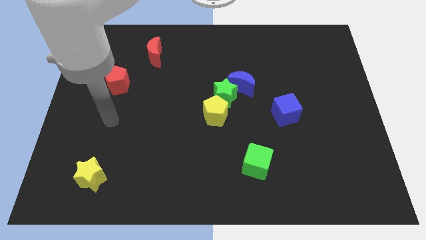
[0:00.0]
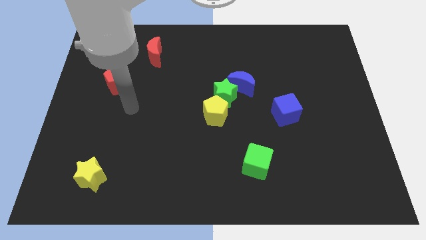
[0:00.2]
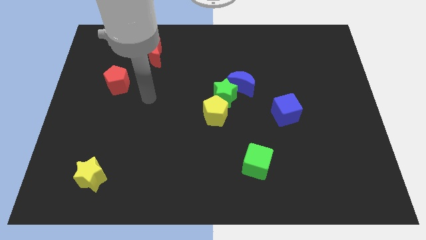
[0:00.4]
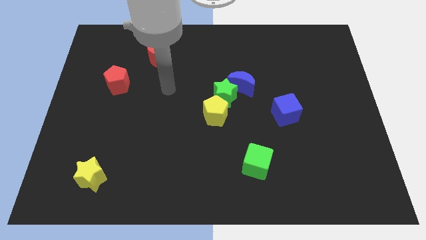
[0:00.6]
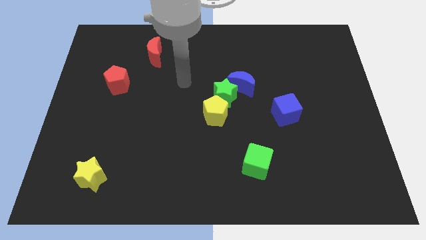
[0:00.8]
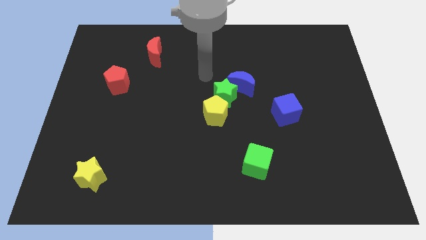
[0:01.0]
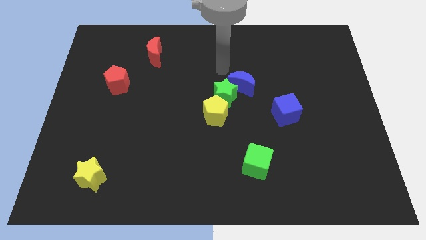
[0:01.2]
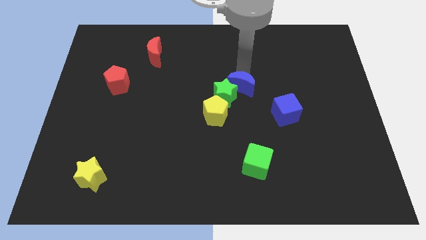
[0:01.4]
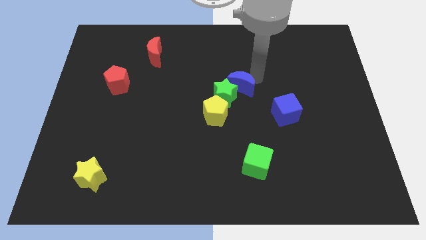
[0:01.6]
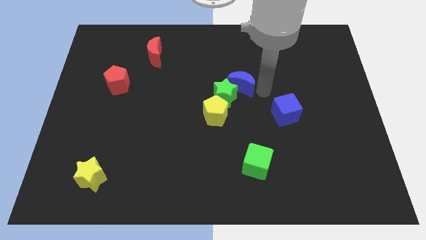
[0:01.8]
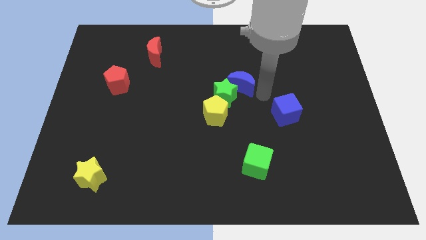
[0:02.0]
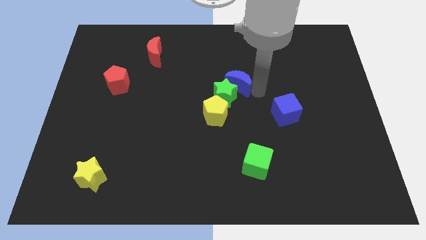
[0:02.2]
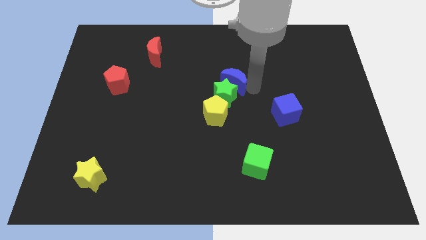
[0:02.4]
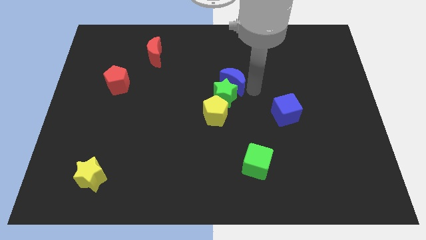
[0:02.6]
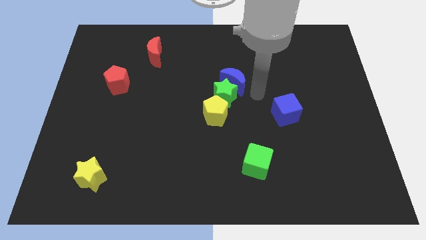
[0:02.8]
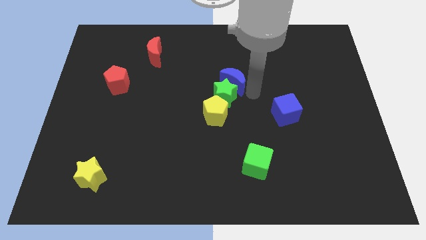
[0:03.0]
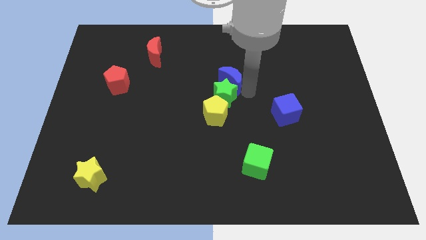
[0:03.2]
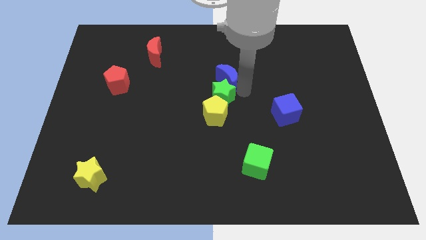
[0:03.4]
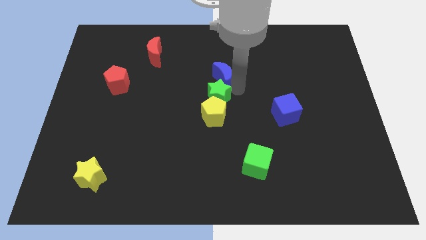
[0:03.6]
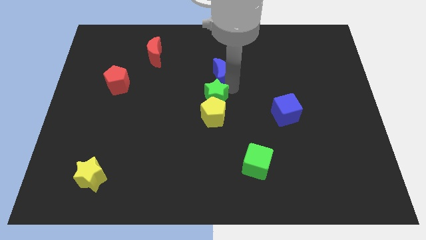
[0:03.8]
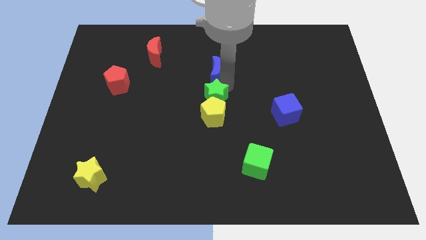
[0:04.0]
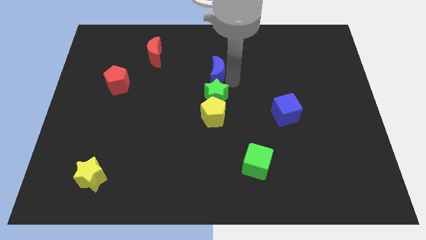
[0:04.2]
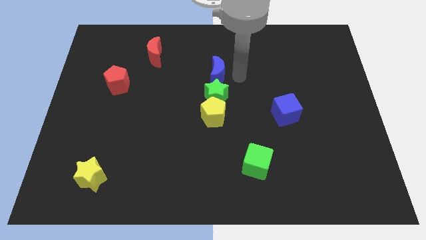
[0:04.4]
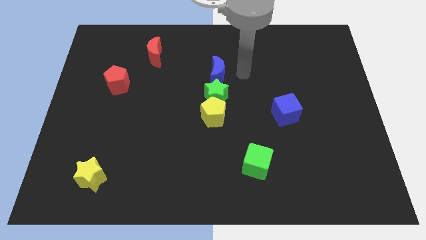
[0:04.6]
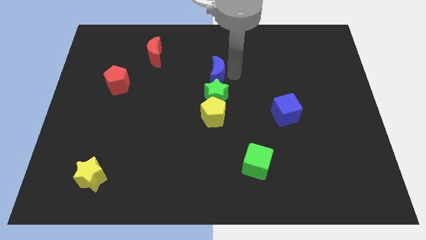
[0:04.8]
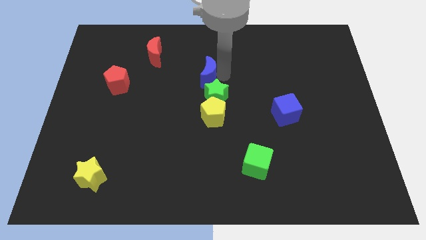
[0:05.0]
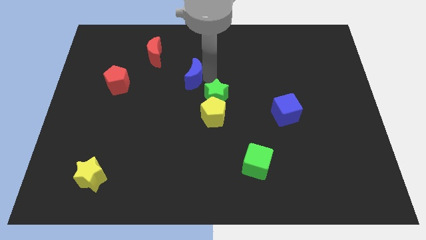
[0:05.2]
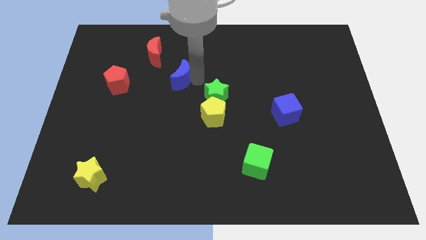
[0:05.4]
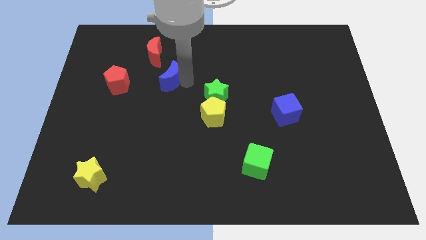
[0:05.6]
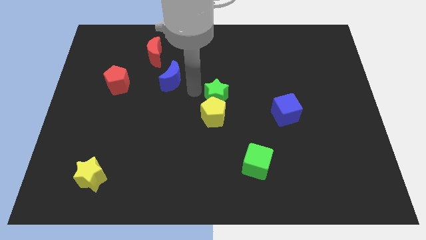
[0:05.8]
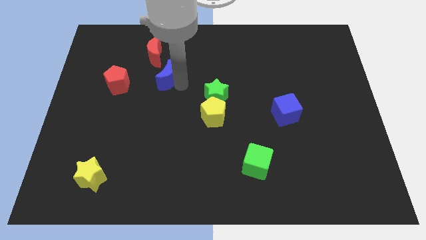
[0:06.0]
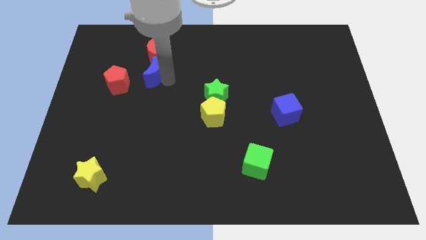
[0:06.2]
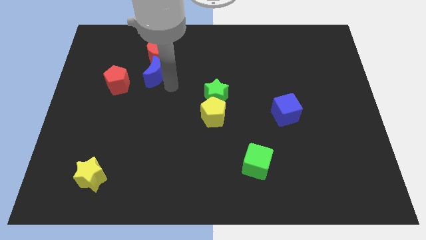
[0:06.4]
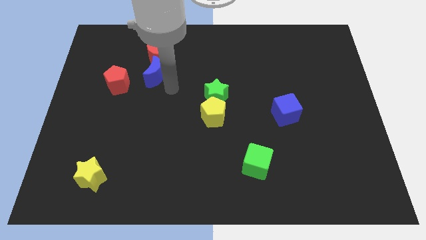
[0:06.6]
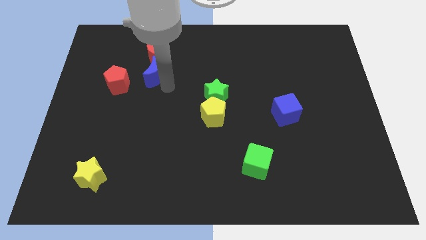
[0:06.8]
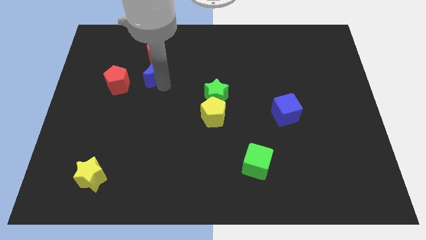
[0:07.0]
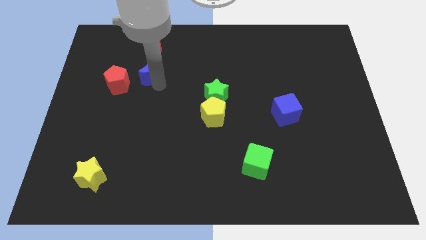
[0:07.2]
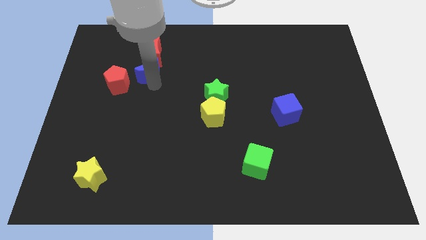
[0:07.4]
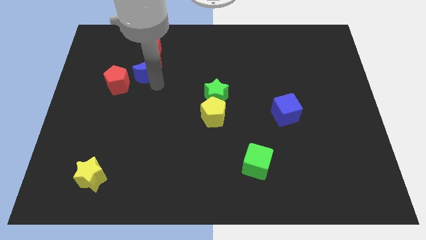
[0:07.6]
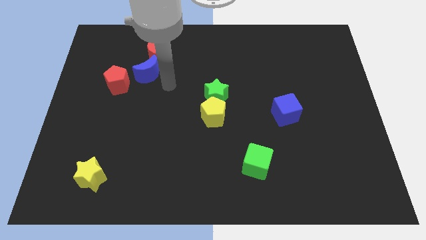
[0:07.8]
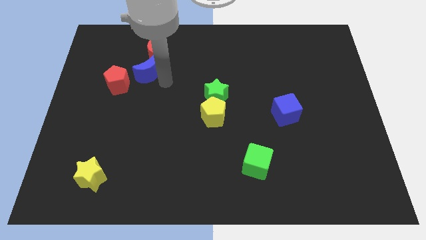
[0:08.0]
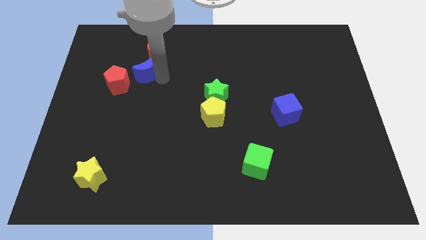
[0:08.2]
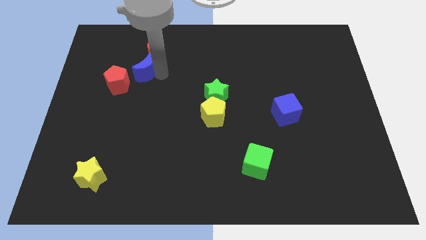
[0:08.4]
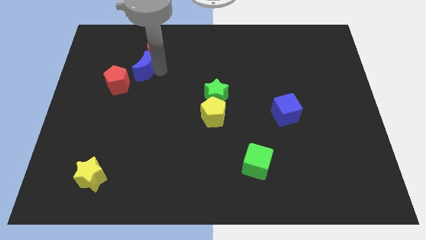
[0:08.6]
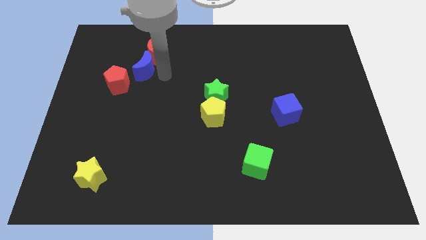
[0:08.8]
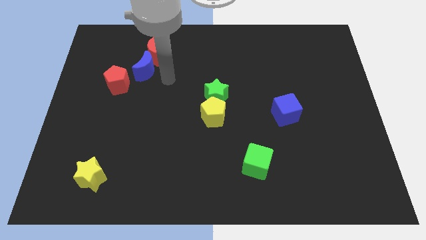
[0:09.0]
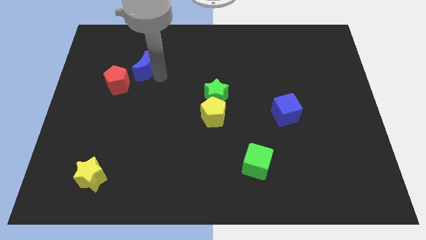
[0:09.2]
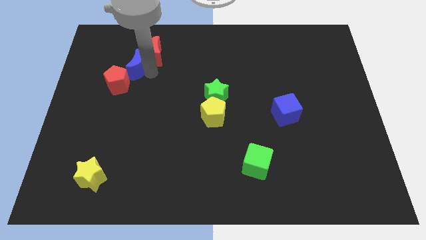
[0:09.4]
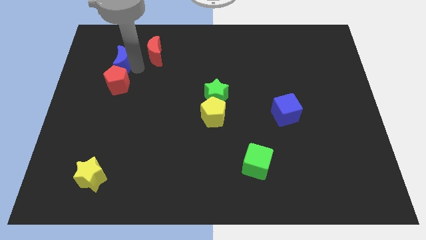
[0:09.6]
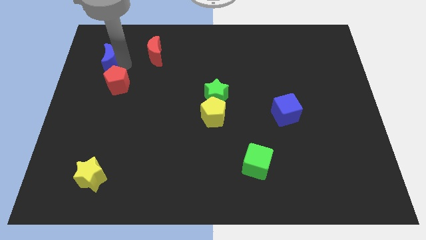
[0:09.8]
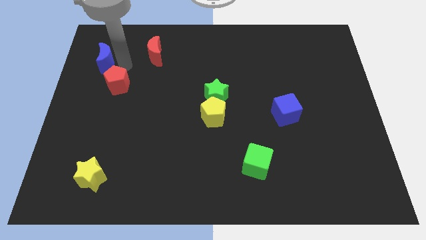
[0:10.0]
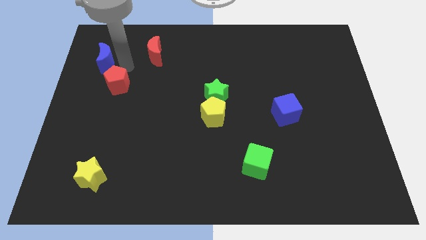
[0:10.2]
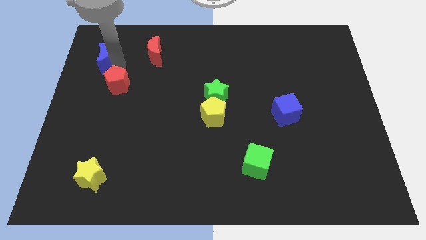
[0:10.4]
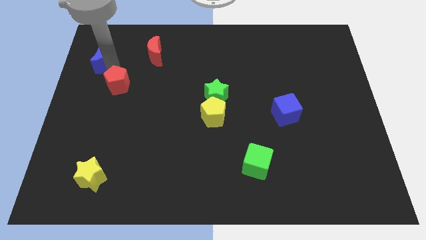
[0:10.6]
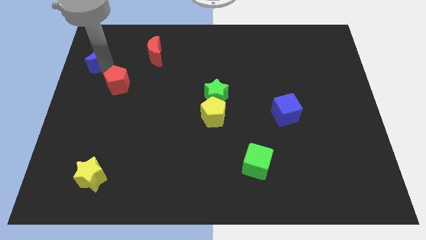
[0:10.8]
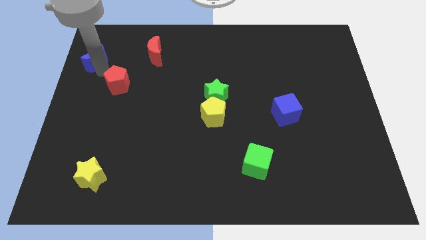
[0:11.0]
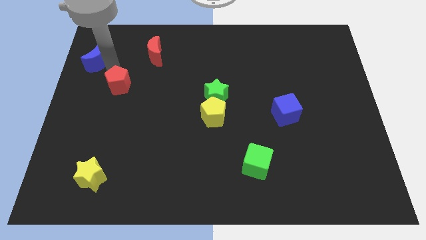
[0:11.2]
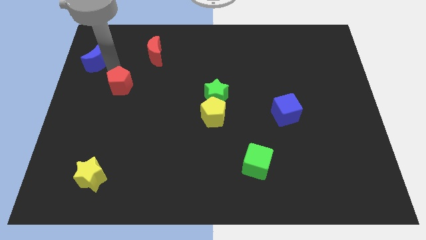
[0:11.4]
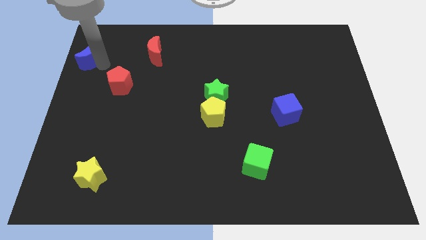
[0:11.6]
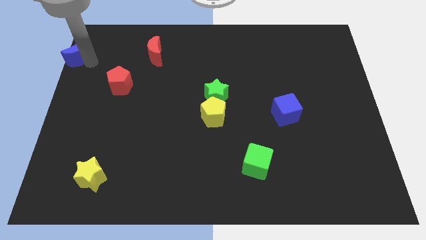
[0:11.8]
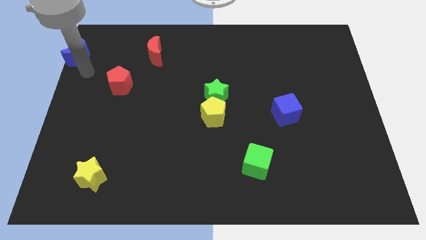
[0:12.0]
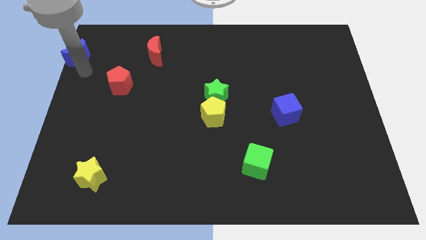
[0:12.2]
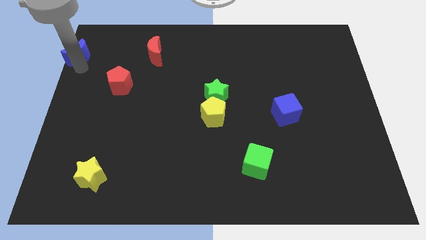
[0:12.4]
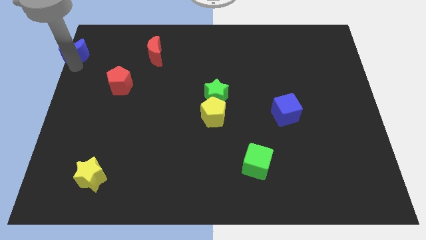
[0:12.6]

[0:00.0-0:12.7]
move the blue moon to the top left corner
